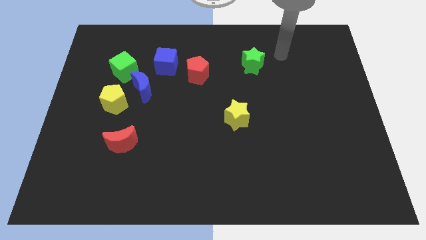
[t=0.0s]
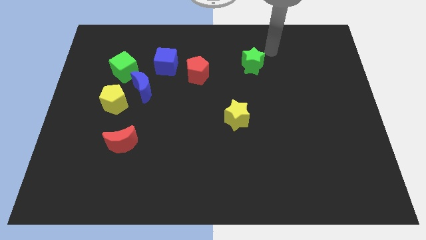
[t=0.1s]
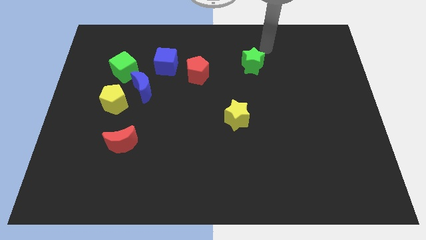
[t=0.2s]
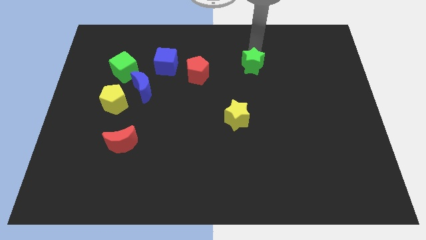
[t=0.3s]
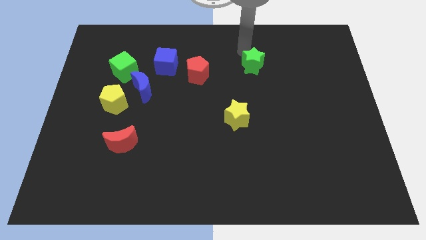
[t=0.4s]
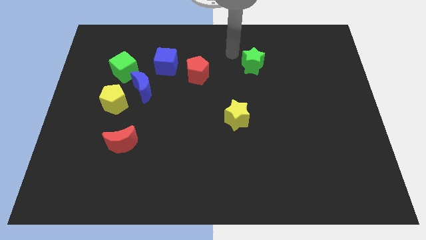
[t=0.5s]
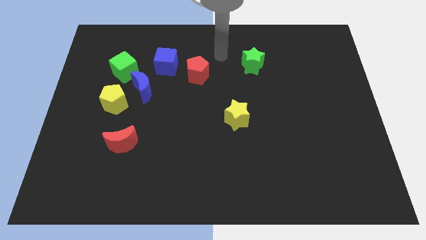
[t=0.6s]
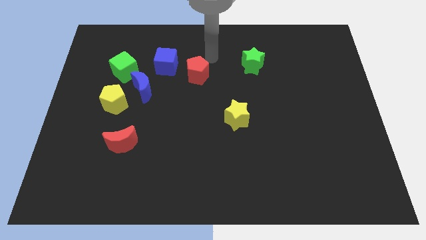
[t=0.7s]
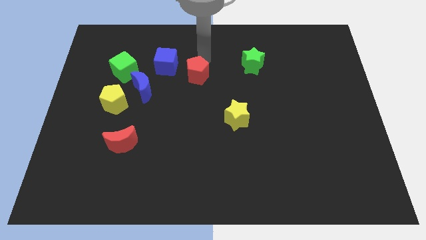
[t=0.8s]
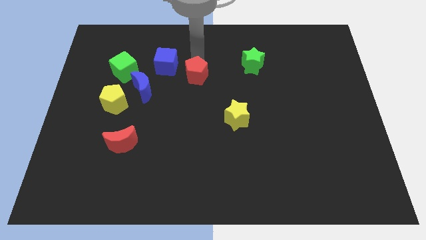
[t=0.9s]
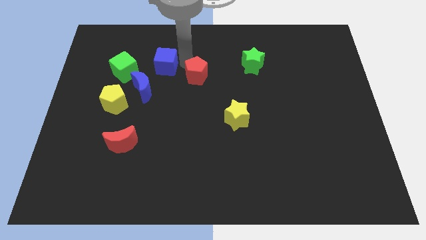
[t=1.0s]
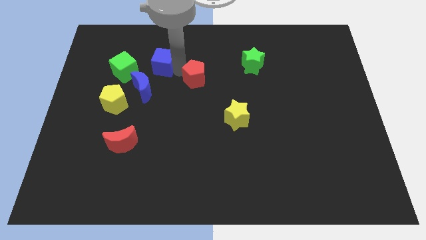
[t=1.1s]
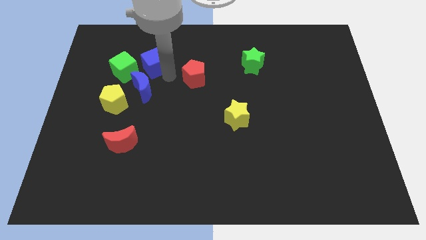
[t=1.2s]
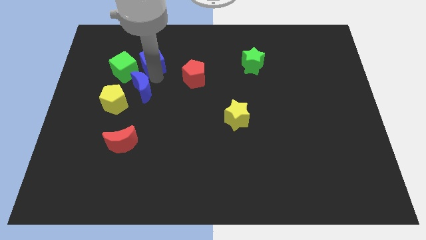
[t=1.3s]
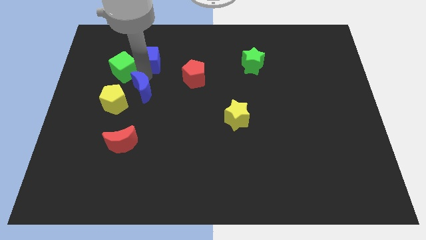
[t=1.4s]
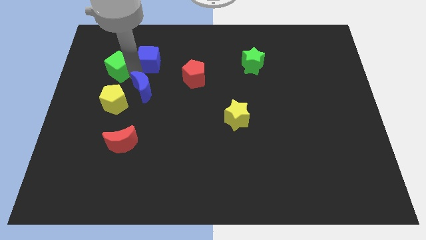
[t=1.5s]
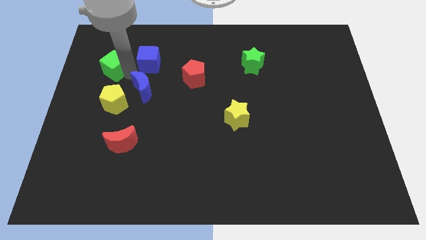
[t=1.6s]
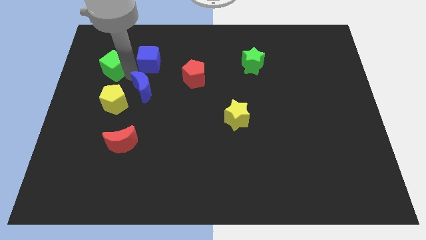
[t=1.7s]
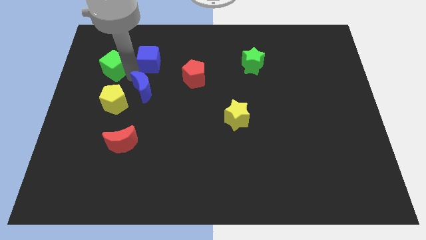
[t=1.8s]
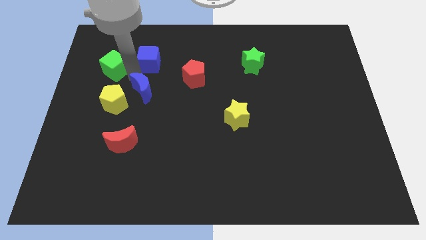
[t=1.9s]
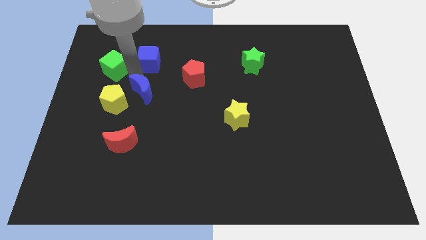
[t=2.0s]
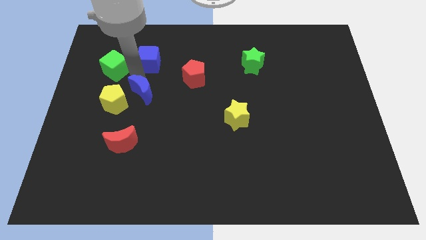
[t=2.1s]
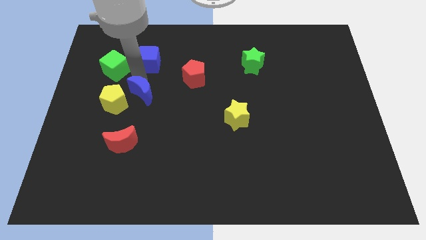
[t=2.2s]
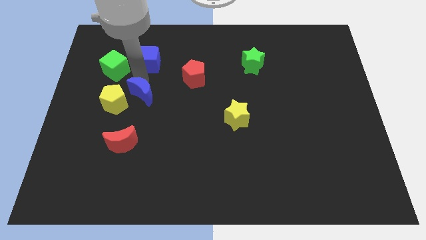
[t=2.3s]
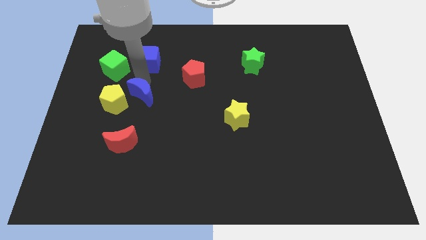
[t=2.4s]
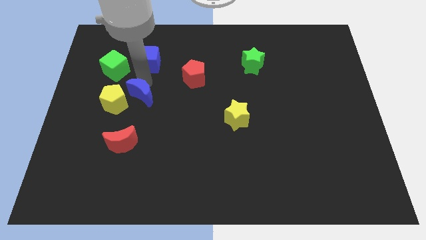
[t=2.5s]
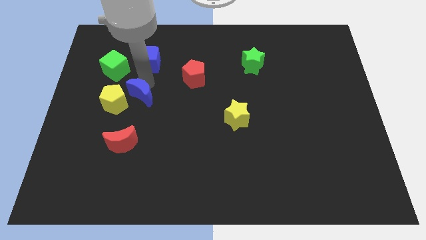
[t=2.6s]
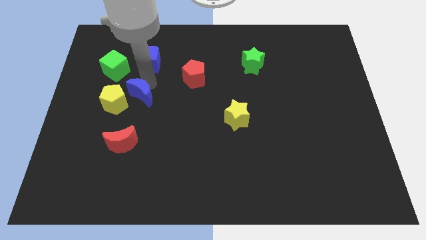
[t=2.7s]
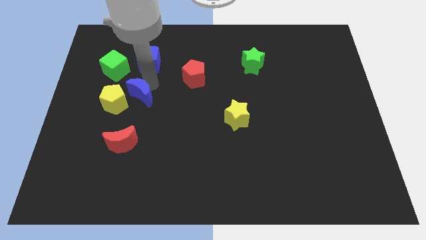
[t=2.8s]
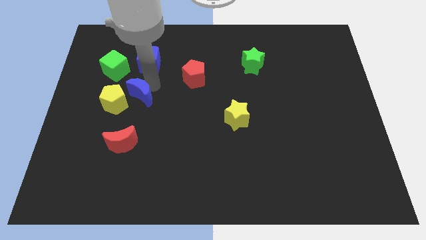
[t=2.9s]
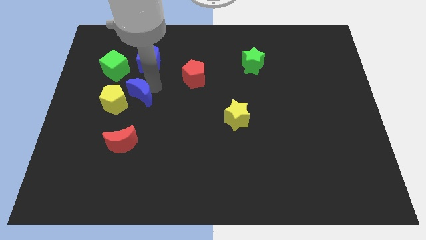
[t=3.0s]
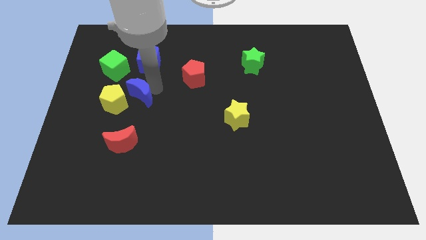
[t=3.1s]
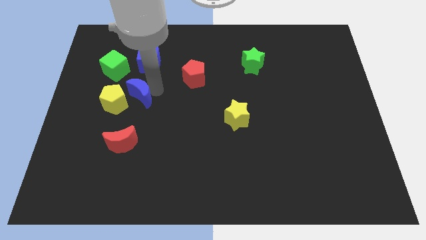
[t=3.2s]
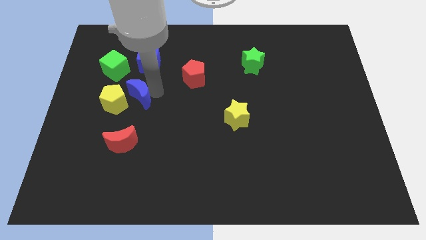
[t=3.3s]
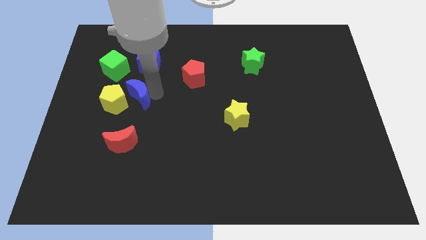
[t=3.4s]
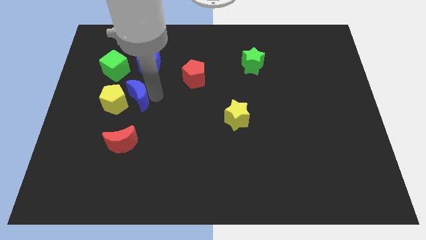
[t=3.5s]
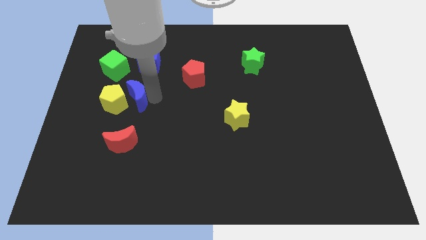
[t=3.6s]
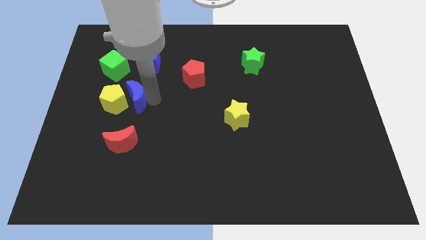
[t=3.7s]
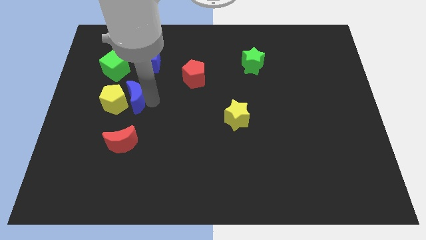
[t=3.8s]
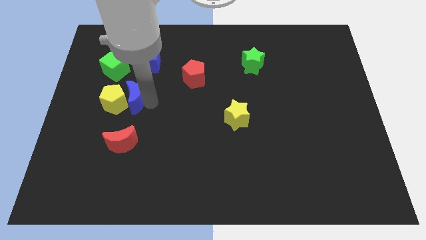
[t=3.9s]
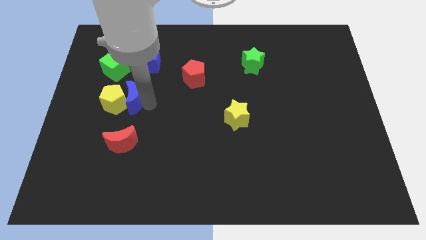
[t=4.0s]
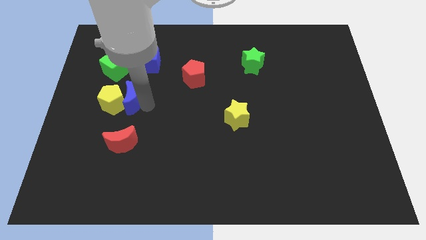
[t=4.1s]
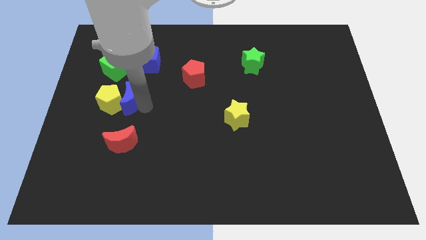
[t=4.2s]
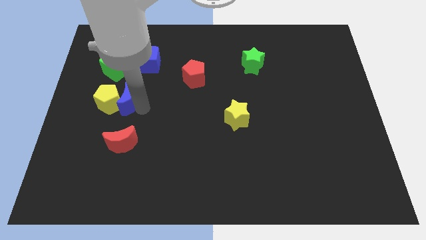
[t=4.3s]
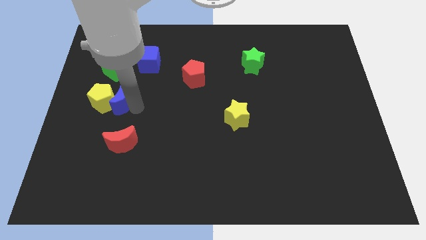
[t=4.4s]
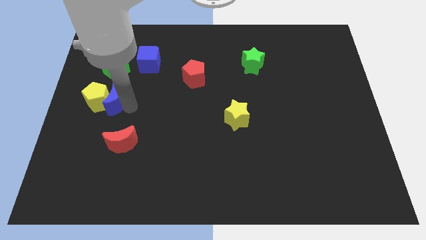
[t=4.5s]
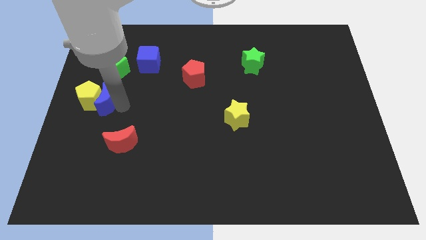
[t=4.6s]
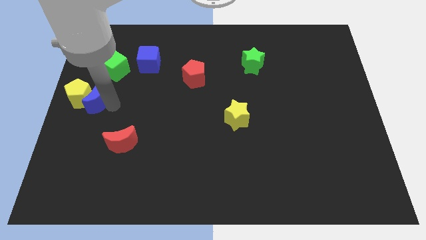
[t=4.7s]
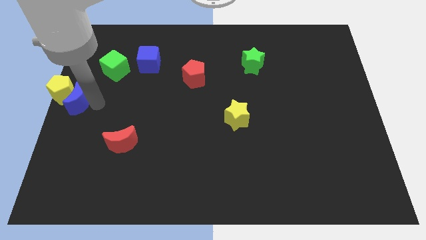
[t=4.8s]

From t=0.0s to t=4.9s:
pull the blue moon apart from the yellow pentagon, green cube, and blue cube

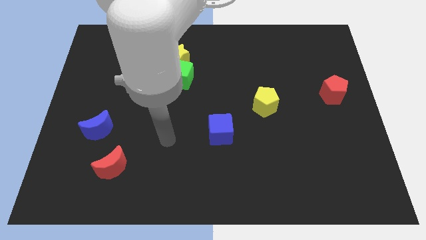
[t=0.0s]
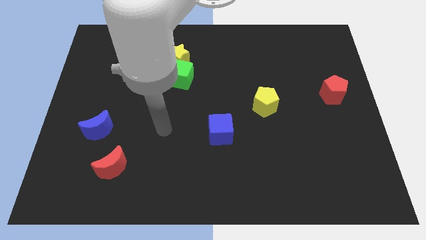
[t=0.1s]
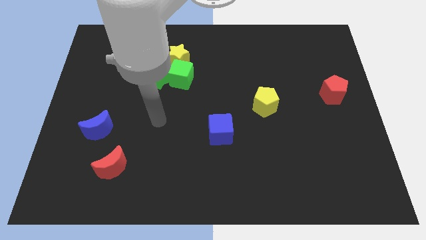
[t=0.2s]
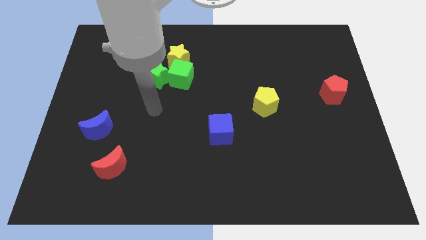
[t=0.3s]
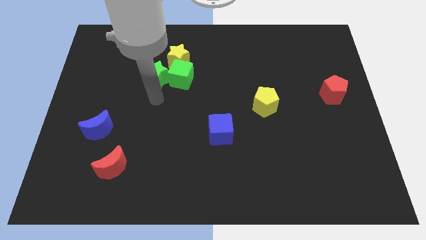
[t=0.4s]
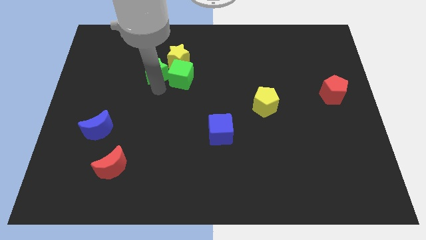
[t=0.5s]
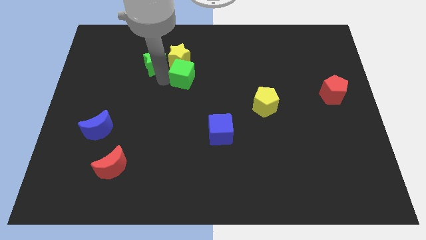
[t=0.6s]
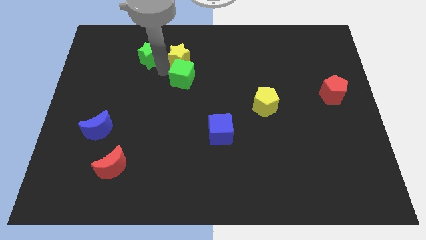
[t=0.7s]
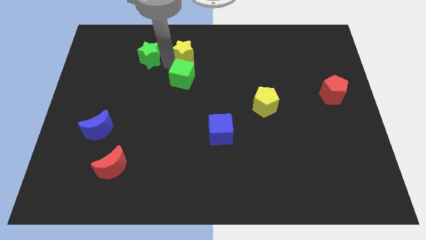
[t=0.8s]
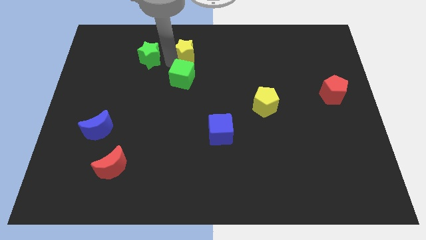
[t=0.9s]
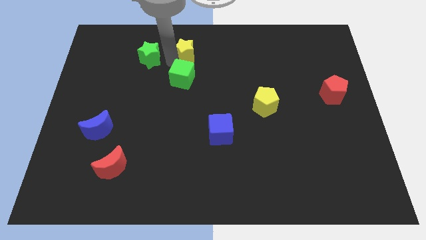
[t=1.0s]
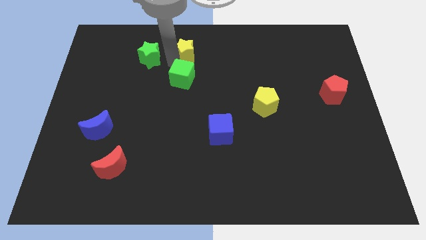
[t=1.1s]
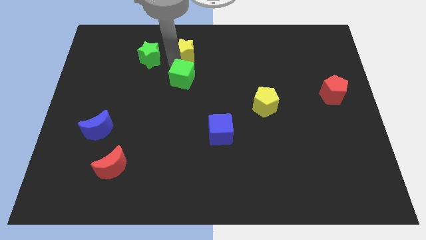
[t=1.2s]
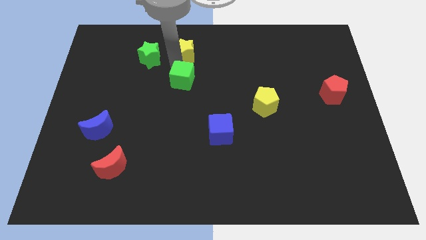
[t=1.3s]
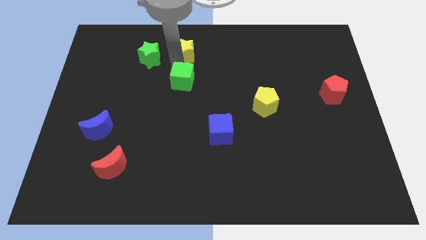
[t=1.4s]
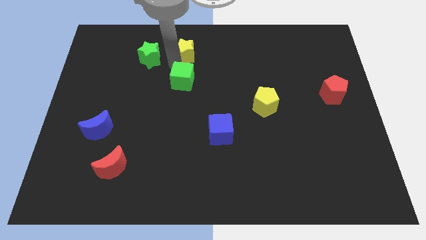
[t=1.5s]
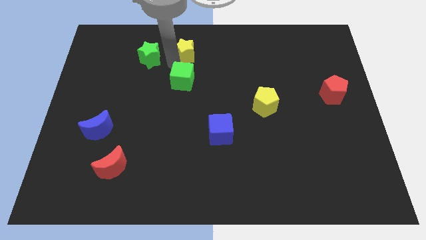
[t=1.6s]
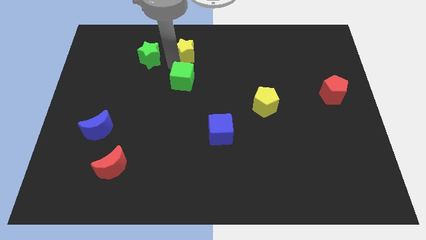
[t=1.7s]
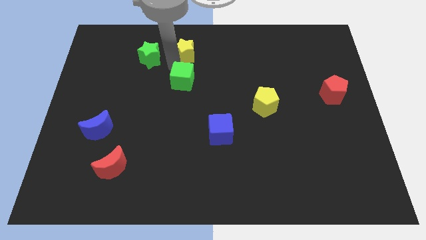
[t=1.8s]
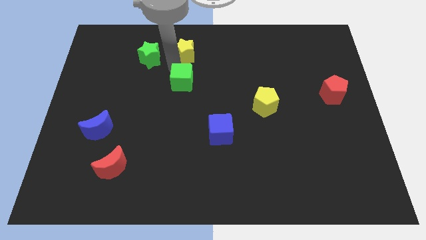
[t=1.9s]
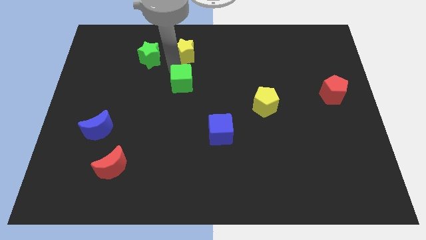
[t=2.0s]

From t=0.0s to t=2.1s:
pull the green cube apart from the green star and yellow star

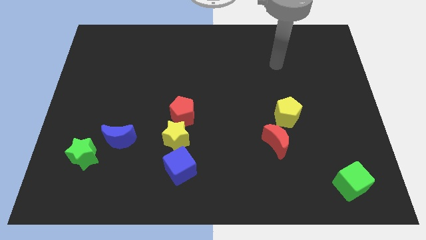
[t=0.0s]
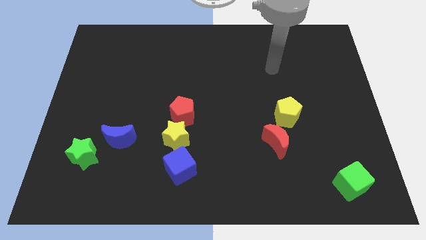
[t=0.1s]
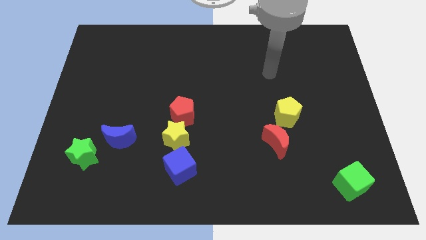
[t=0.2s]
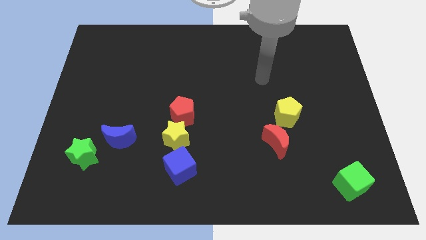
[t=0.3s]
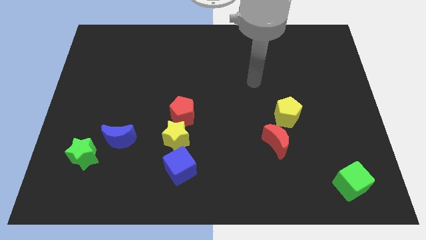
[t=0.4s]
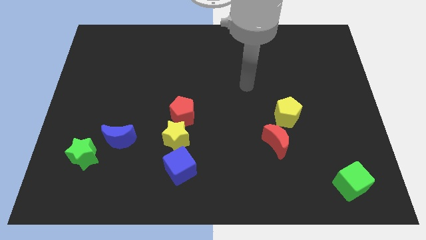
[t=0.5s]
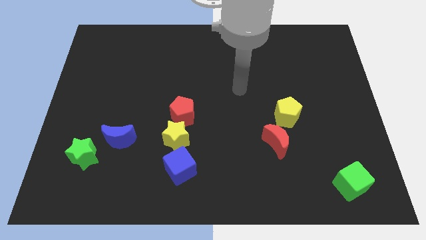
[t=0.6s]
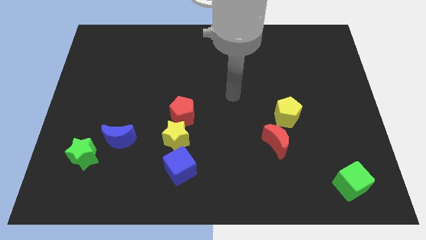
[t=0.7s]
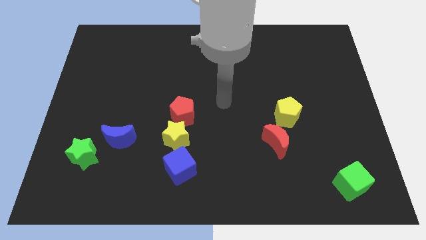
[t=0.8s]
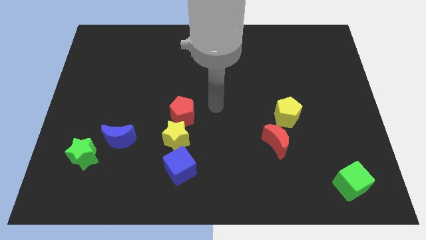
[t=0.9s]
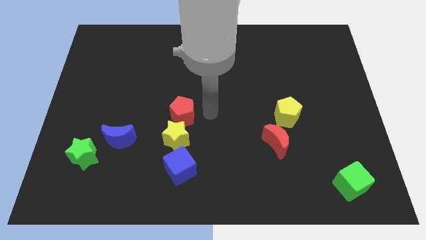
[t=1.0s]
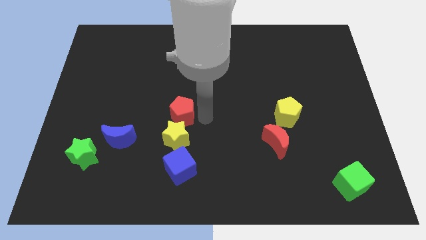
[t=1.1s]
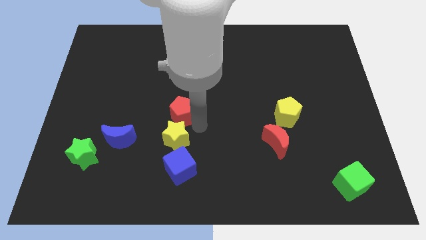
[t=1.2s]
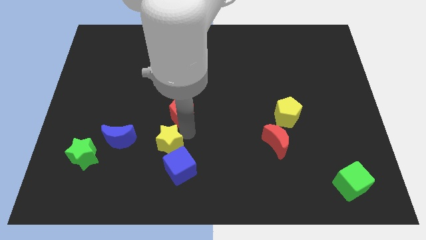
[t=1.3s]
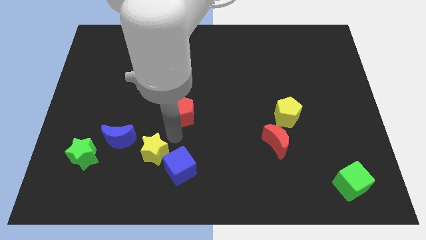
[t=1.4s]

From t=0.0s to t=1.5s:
pull the red pentagon apart from the yellow star

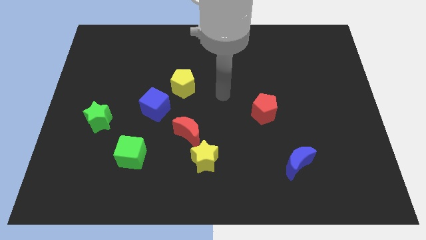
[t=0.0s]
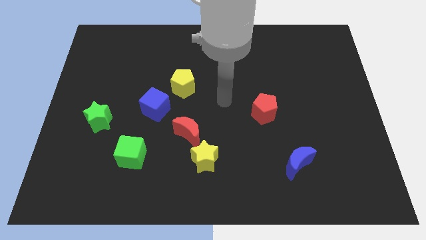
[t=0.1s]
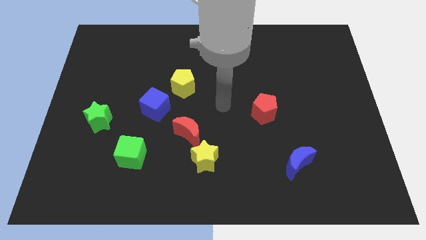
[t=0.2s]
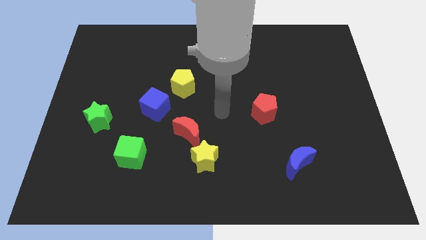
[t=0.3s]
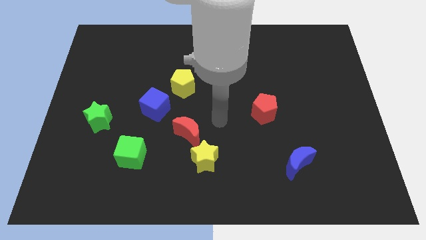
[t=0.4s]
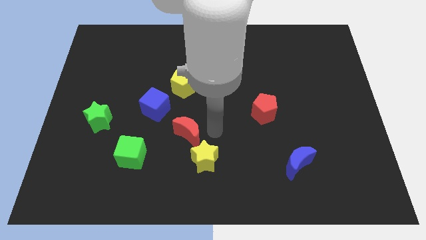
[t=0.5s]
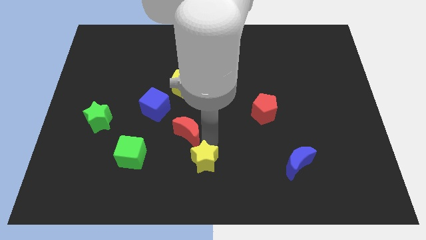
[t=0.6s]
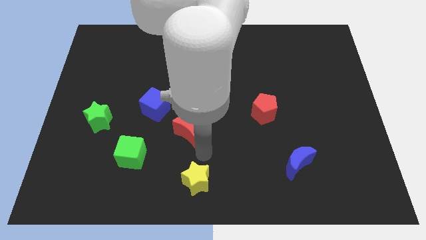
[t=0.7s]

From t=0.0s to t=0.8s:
pull the red moon apart from the yellow star
